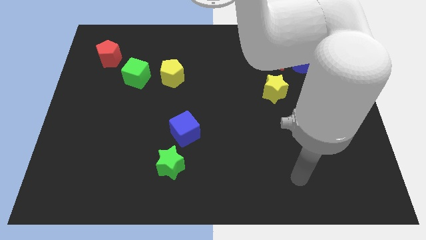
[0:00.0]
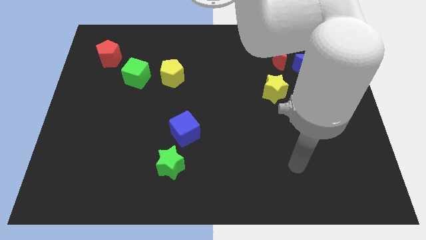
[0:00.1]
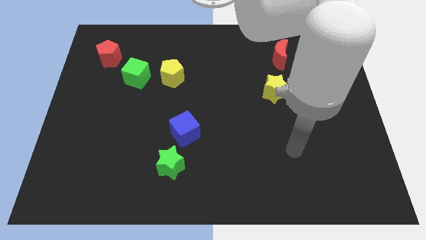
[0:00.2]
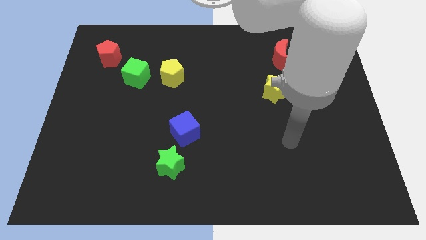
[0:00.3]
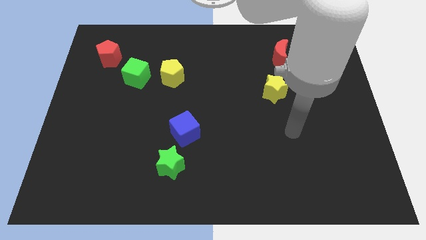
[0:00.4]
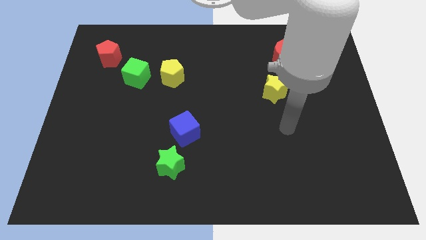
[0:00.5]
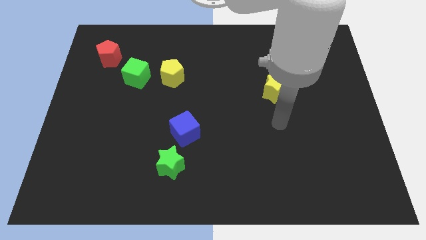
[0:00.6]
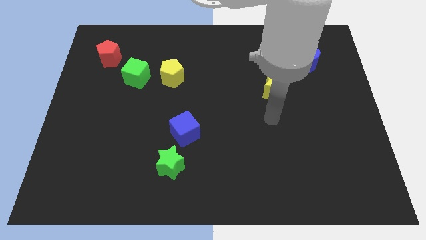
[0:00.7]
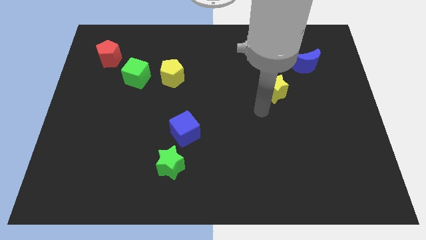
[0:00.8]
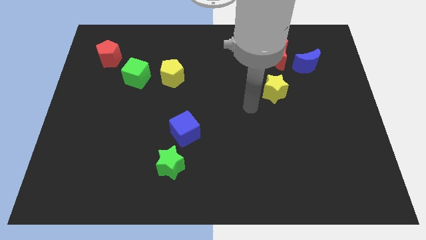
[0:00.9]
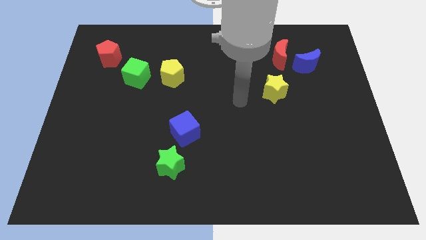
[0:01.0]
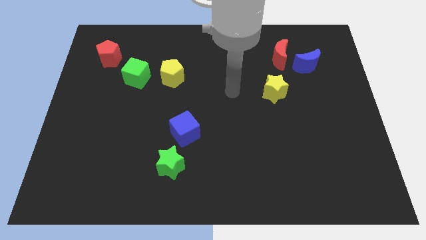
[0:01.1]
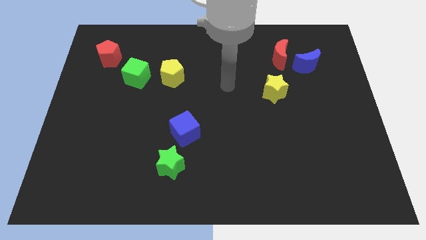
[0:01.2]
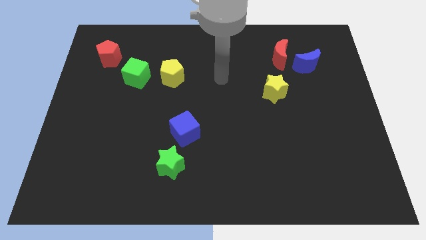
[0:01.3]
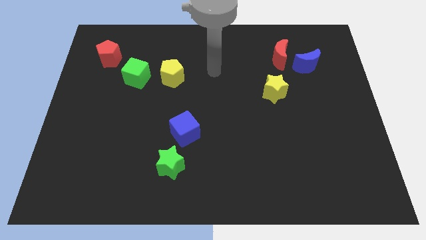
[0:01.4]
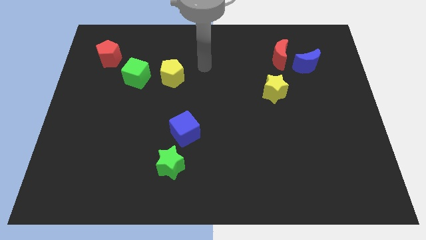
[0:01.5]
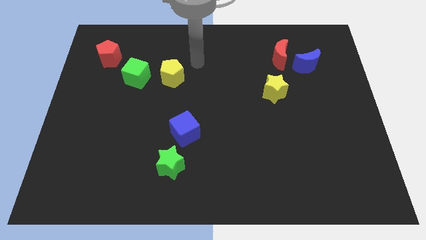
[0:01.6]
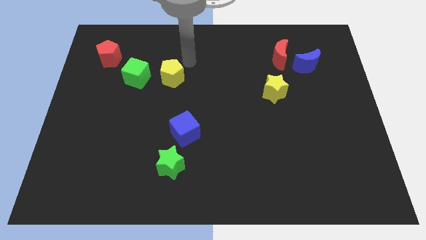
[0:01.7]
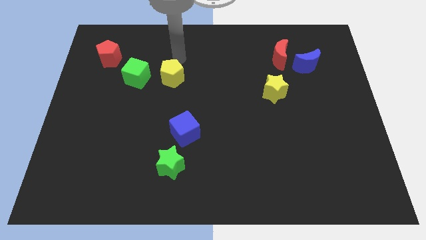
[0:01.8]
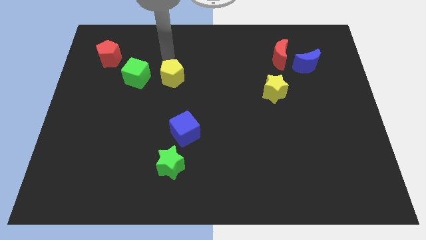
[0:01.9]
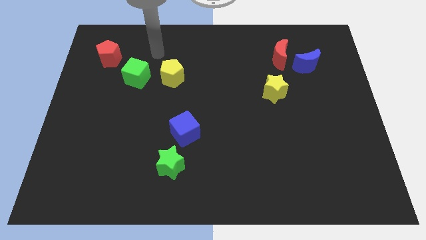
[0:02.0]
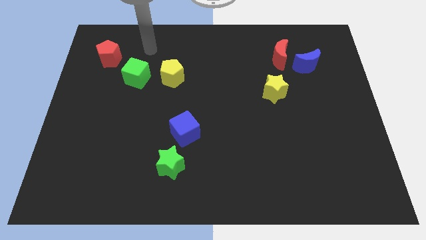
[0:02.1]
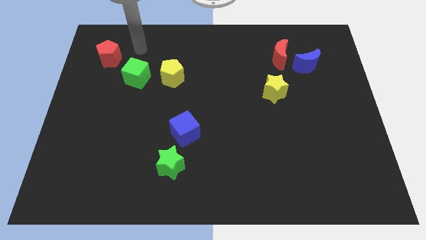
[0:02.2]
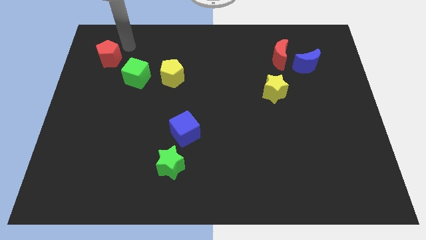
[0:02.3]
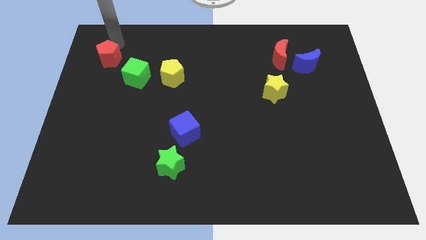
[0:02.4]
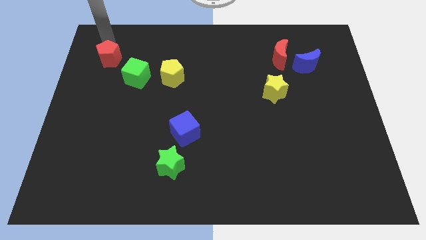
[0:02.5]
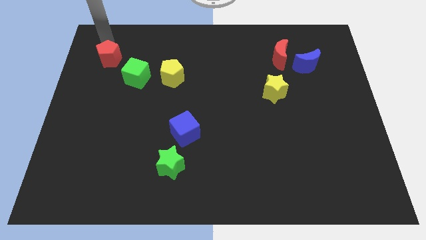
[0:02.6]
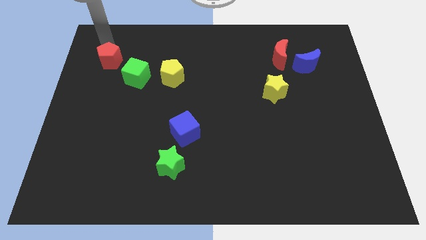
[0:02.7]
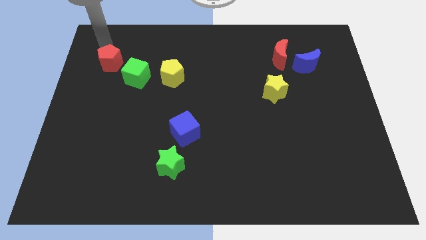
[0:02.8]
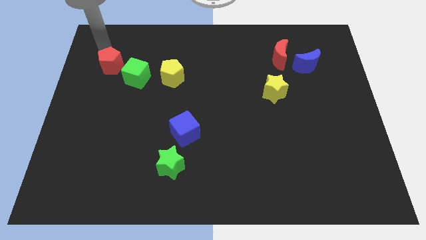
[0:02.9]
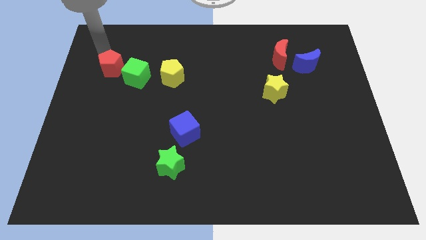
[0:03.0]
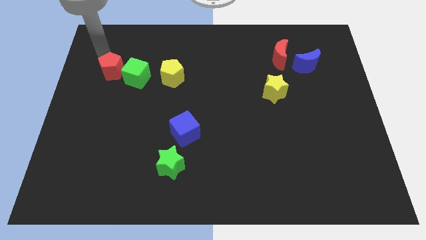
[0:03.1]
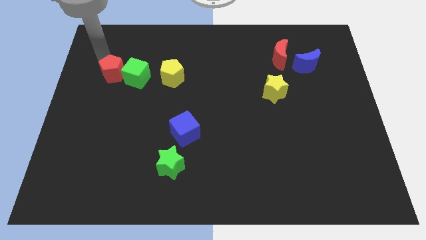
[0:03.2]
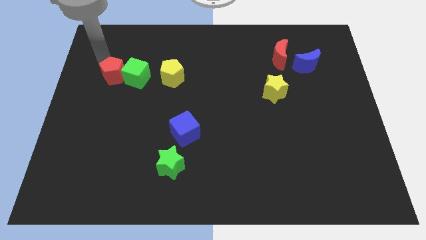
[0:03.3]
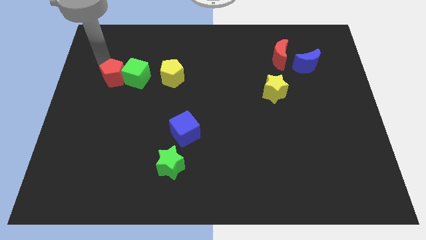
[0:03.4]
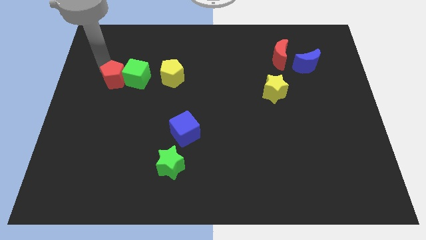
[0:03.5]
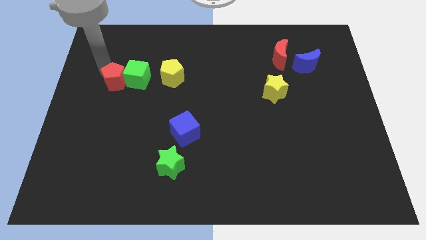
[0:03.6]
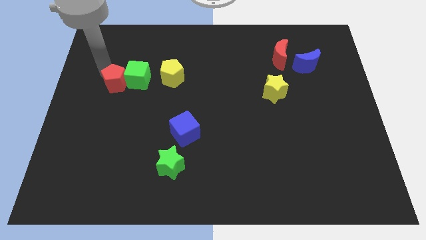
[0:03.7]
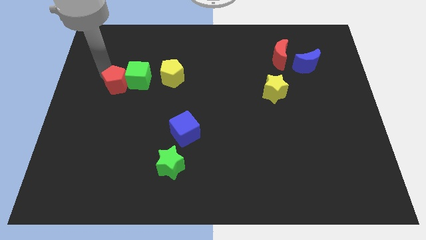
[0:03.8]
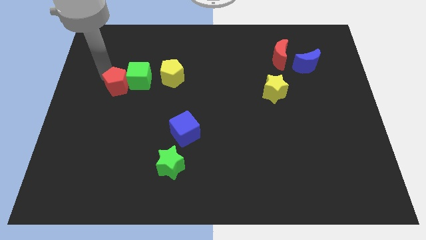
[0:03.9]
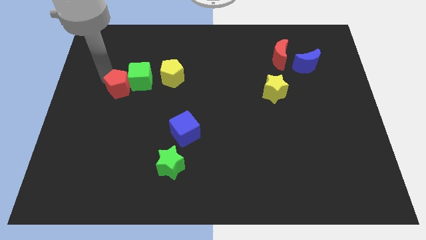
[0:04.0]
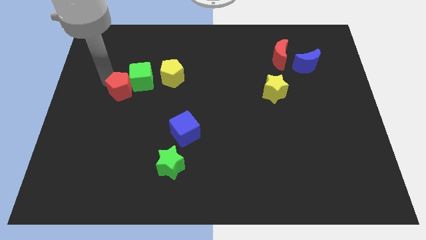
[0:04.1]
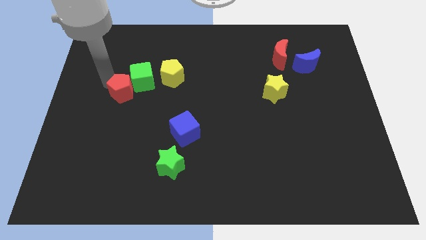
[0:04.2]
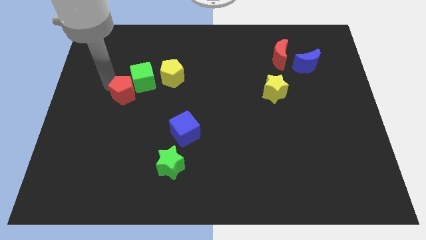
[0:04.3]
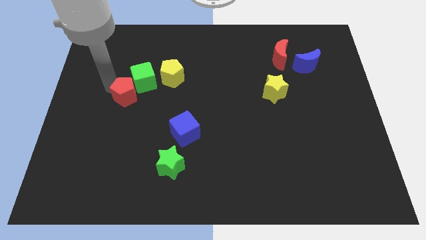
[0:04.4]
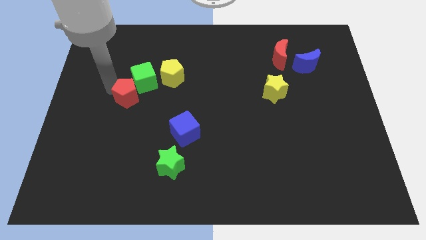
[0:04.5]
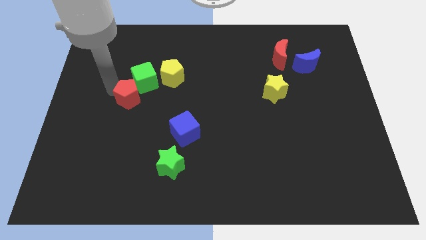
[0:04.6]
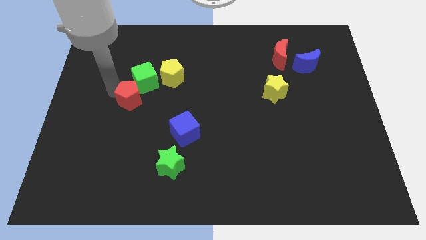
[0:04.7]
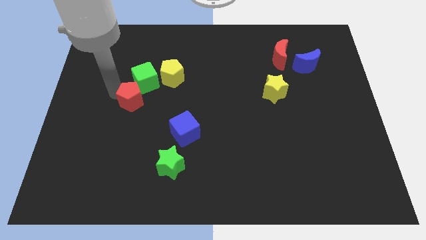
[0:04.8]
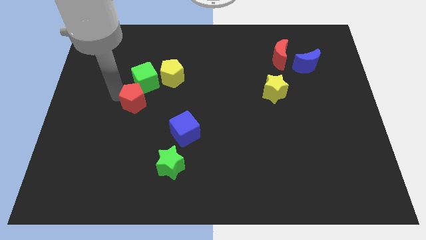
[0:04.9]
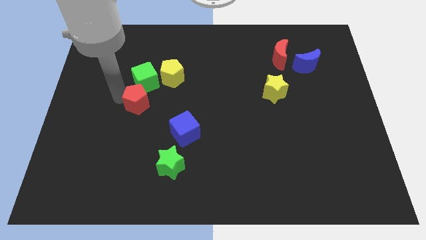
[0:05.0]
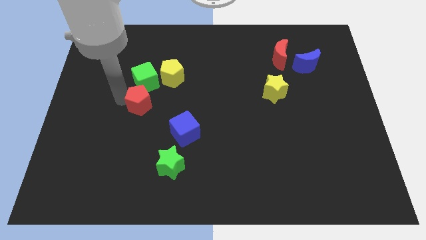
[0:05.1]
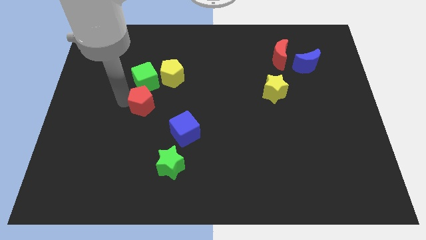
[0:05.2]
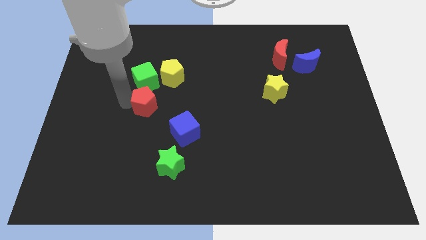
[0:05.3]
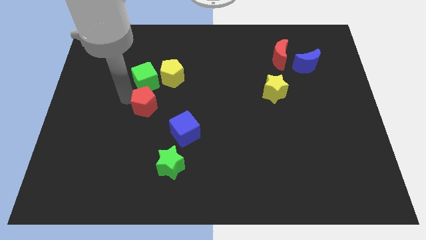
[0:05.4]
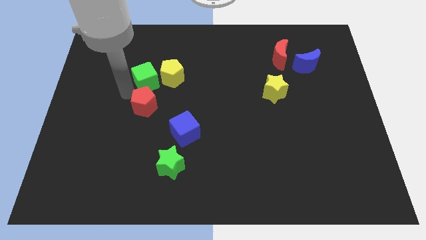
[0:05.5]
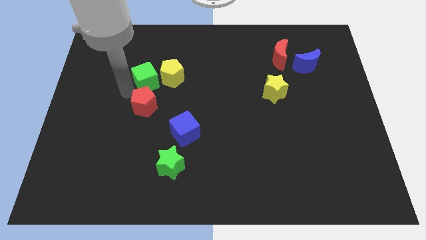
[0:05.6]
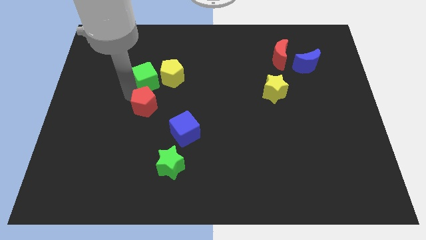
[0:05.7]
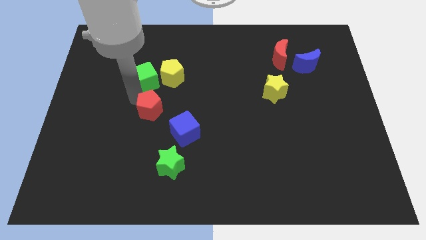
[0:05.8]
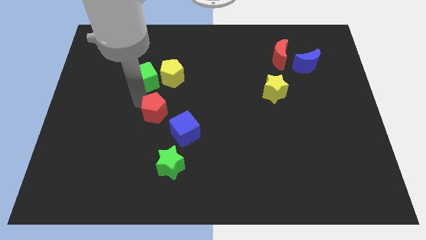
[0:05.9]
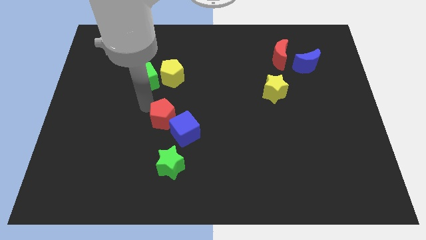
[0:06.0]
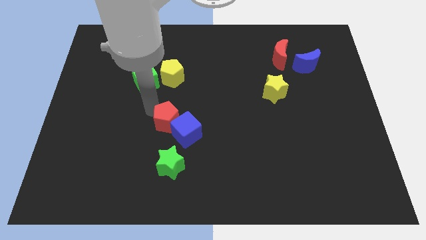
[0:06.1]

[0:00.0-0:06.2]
move the red pentagon next to the blue cube

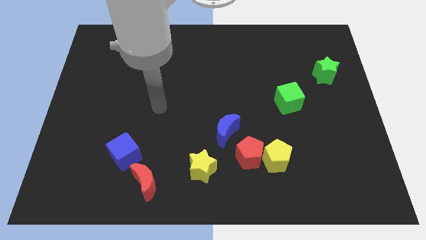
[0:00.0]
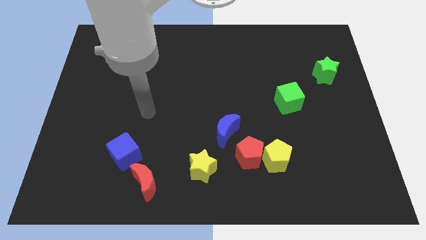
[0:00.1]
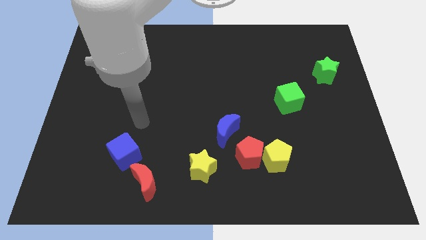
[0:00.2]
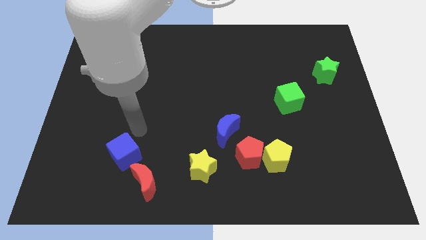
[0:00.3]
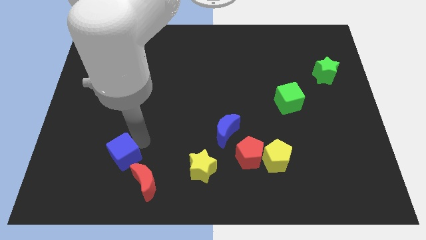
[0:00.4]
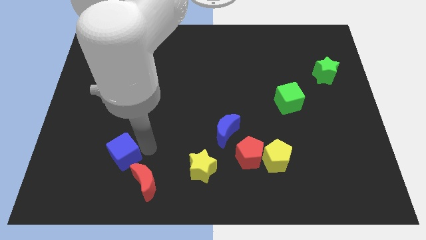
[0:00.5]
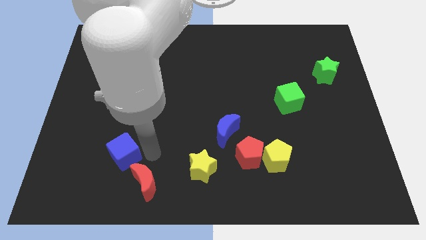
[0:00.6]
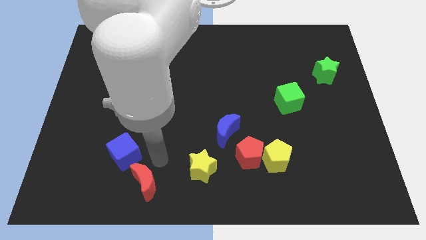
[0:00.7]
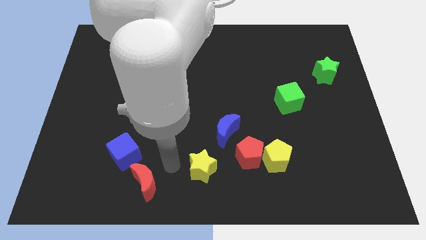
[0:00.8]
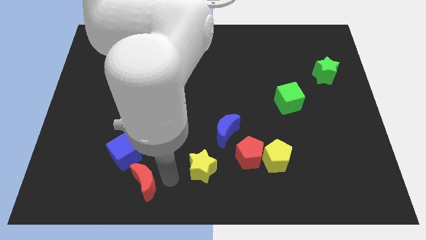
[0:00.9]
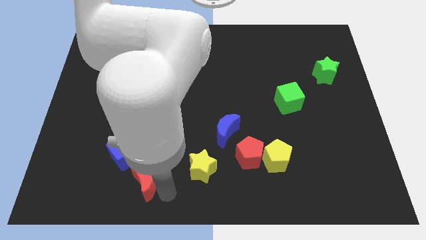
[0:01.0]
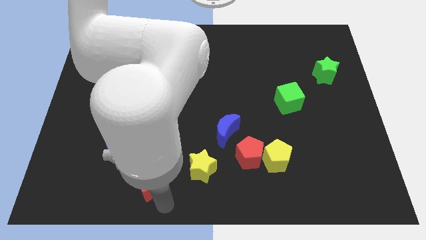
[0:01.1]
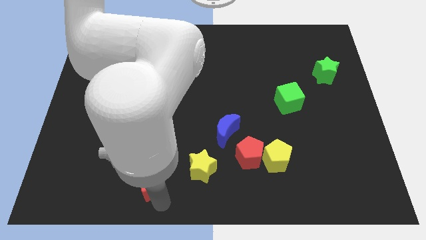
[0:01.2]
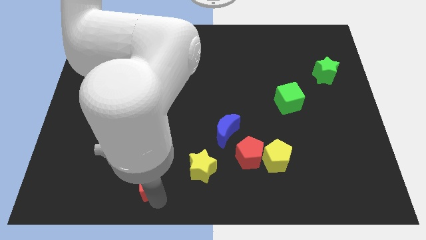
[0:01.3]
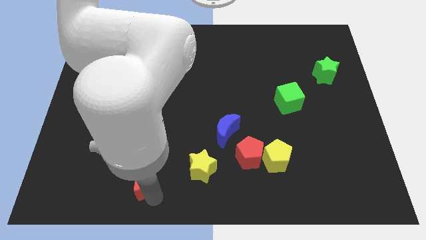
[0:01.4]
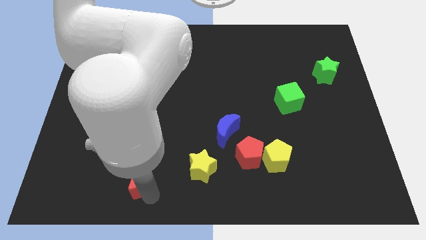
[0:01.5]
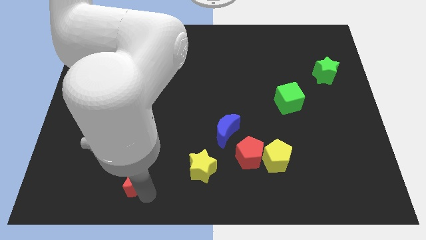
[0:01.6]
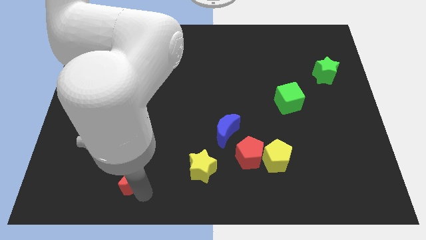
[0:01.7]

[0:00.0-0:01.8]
put the red moon towards the blue cube
